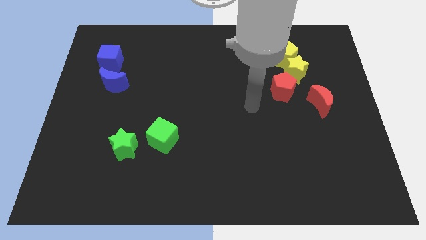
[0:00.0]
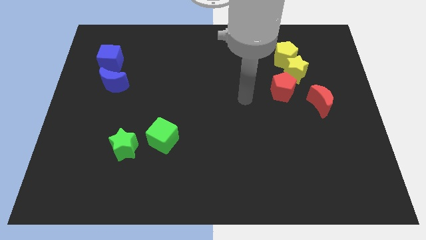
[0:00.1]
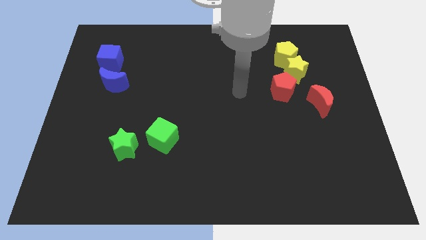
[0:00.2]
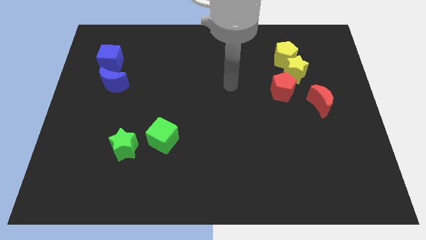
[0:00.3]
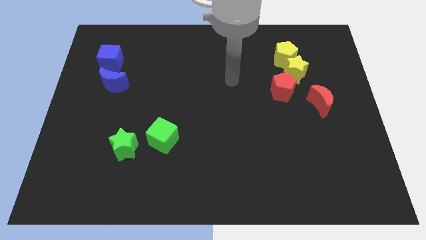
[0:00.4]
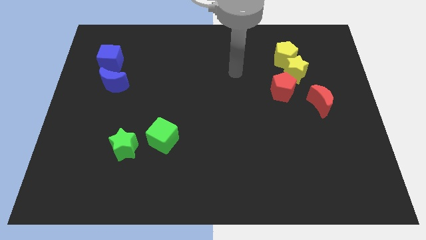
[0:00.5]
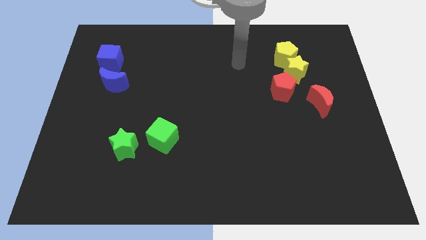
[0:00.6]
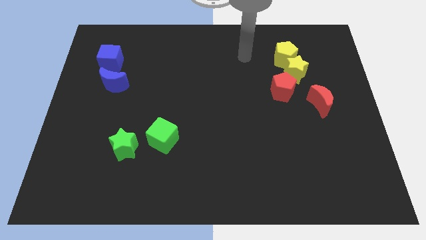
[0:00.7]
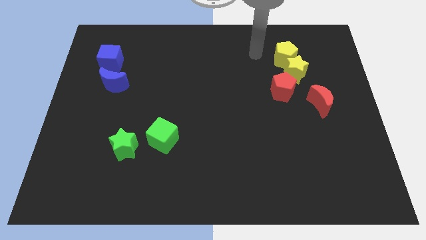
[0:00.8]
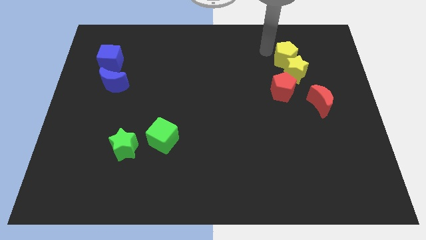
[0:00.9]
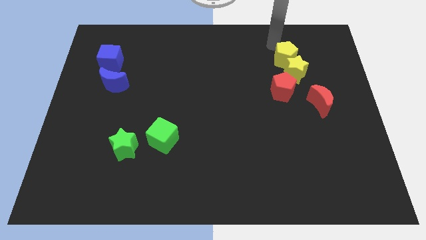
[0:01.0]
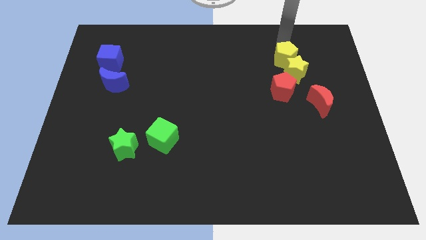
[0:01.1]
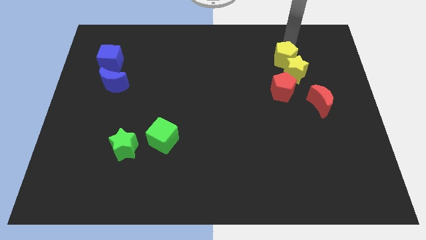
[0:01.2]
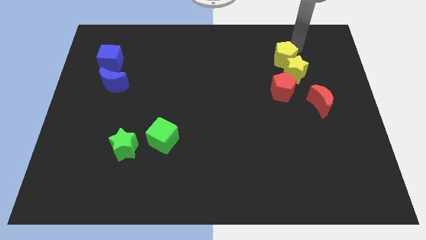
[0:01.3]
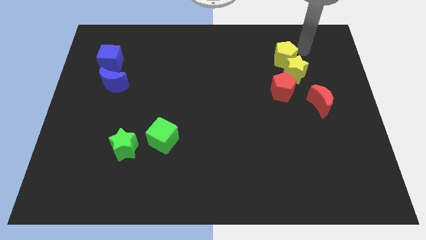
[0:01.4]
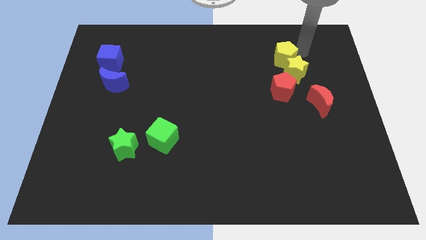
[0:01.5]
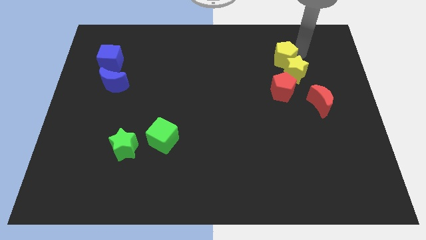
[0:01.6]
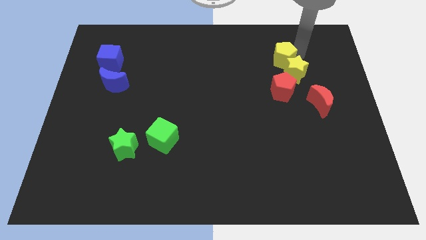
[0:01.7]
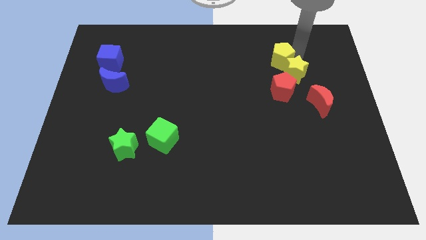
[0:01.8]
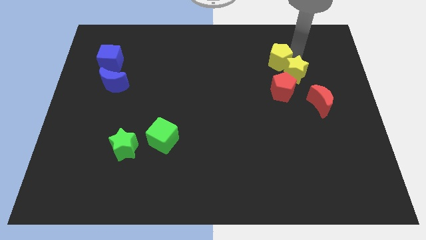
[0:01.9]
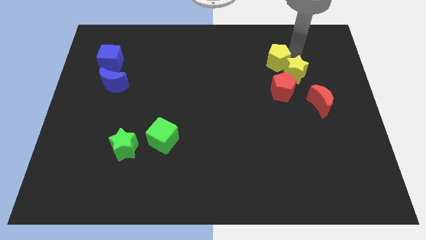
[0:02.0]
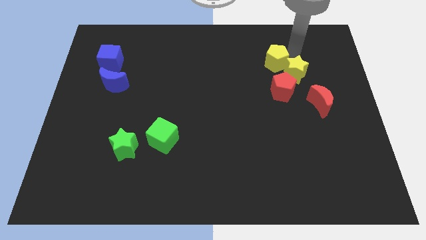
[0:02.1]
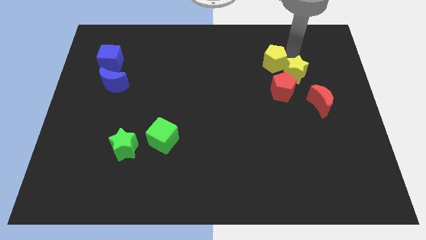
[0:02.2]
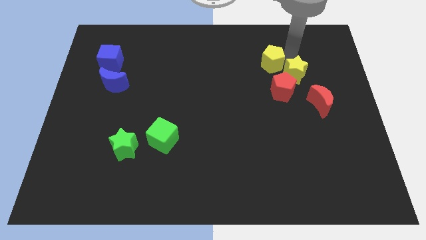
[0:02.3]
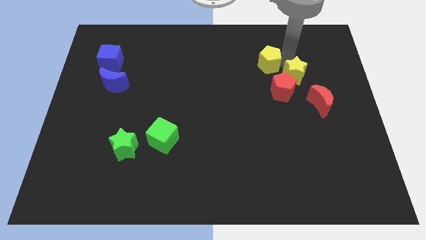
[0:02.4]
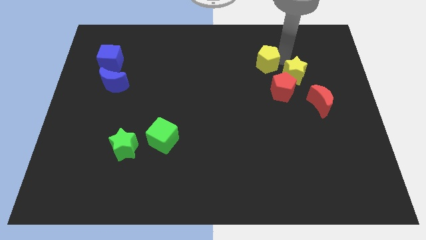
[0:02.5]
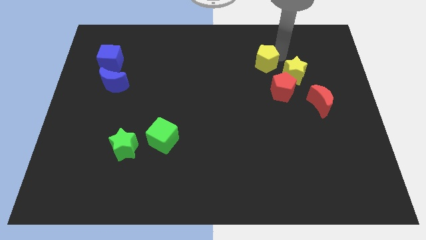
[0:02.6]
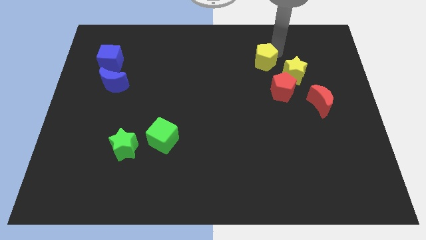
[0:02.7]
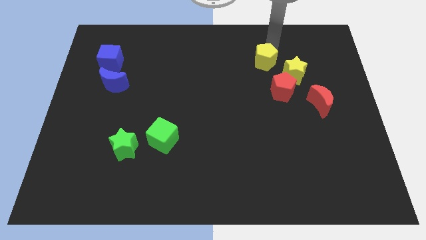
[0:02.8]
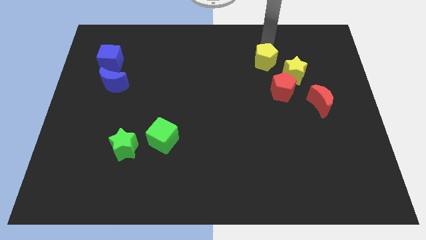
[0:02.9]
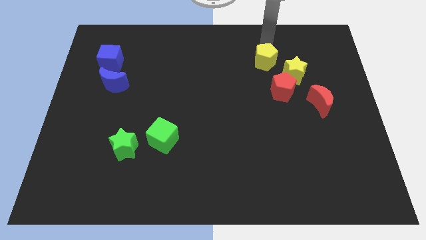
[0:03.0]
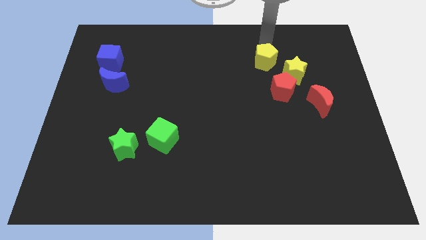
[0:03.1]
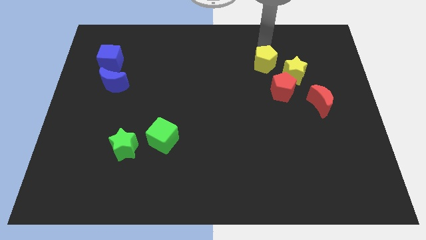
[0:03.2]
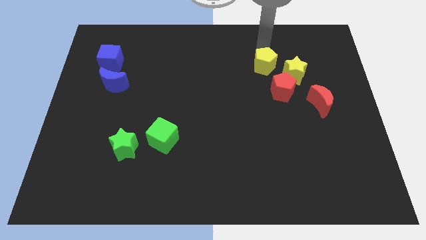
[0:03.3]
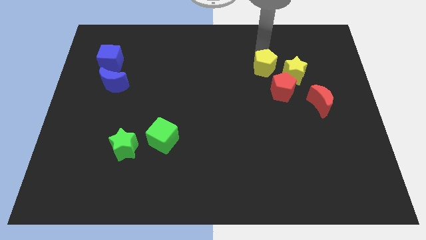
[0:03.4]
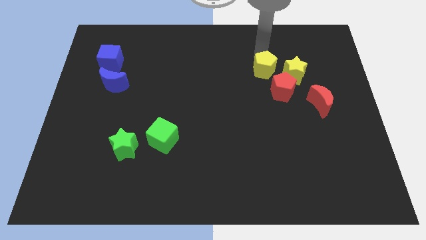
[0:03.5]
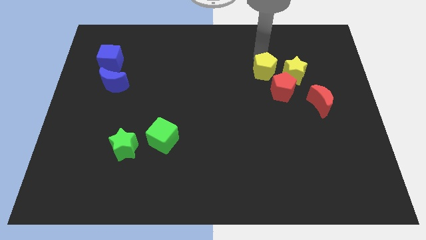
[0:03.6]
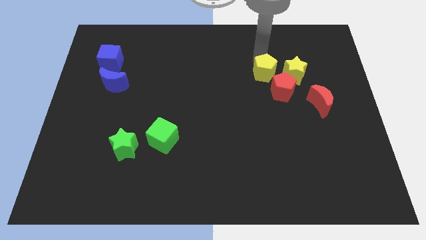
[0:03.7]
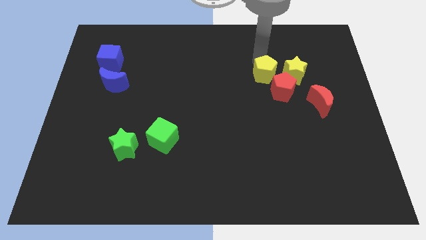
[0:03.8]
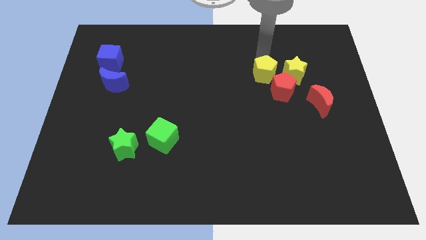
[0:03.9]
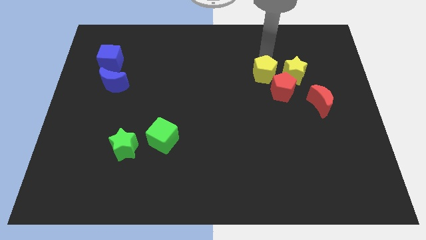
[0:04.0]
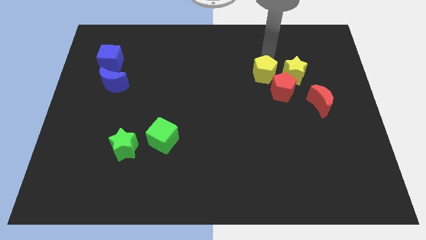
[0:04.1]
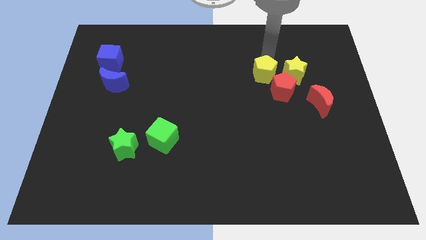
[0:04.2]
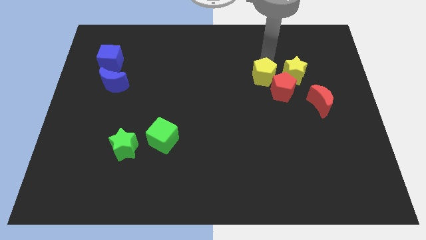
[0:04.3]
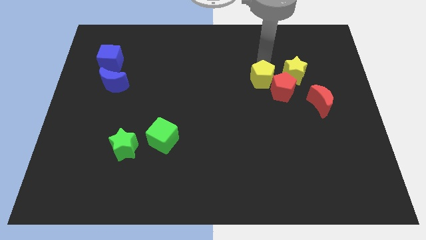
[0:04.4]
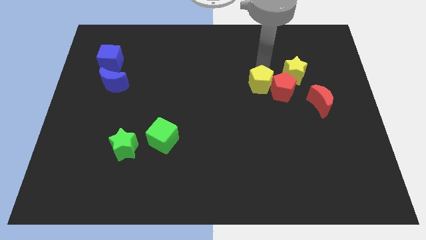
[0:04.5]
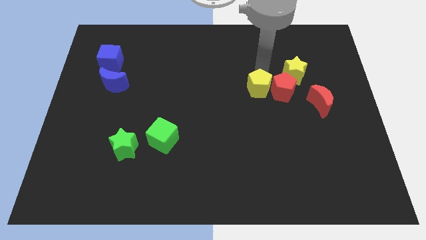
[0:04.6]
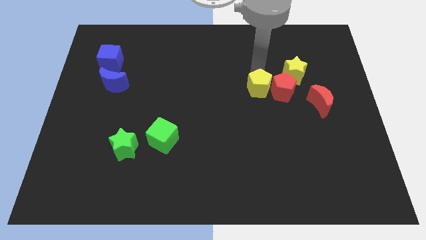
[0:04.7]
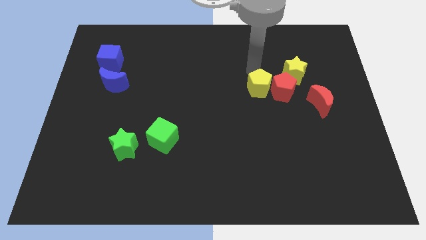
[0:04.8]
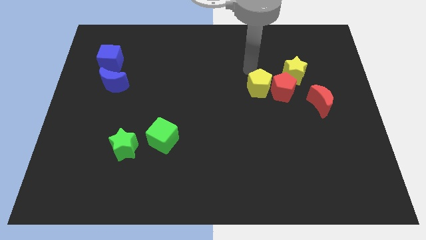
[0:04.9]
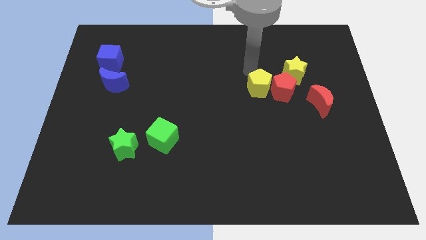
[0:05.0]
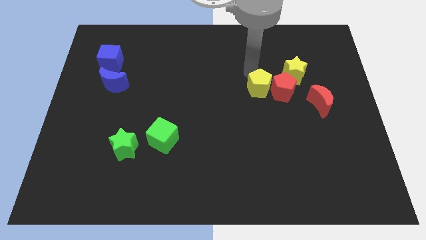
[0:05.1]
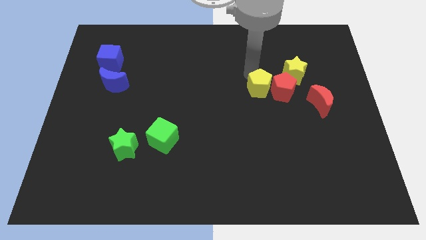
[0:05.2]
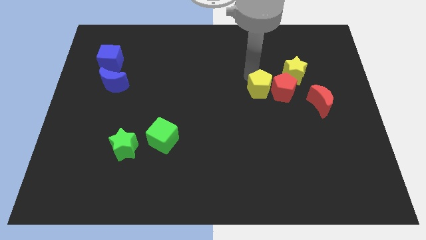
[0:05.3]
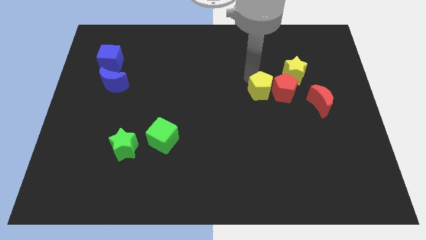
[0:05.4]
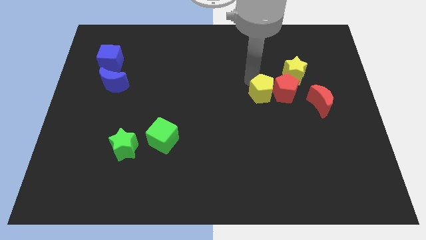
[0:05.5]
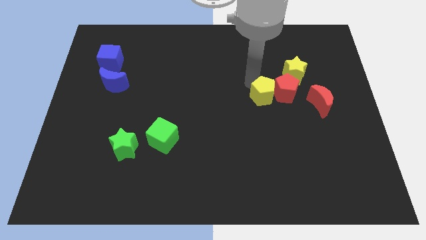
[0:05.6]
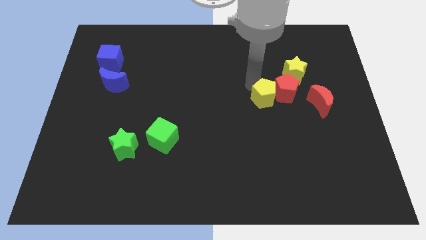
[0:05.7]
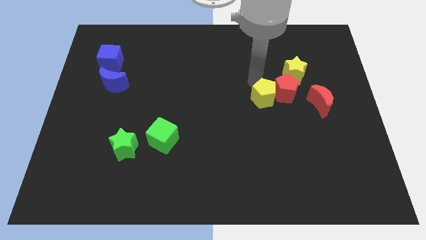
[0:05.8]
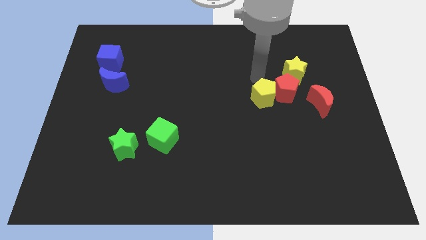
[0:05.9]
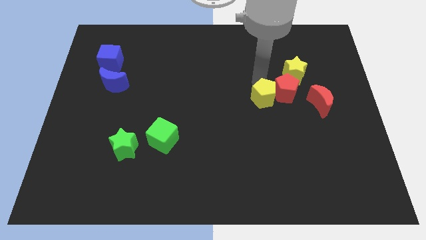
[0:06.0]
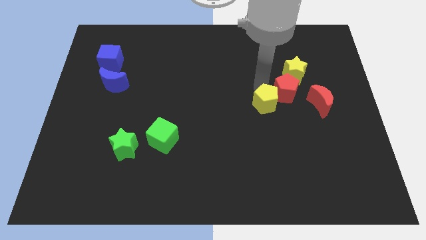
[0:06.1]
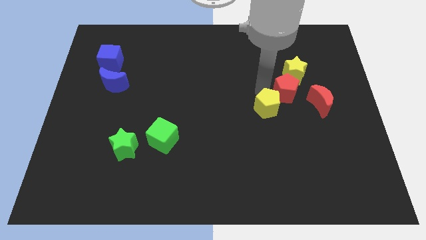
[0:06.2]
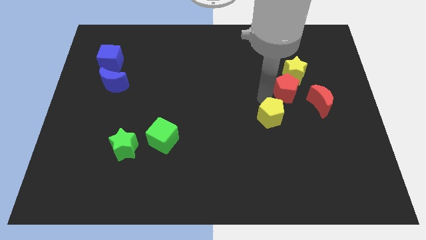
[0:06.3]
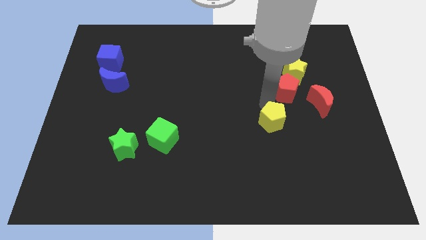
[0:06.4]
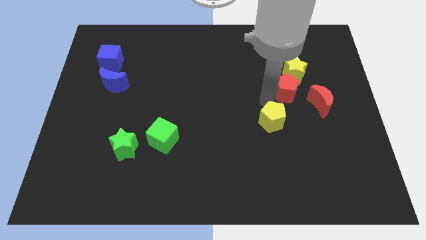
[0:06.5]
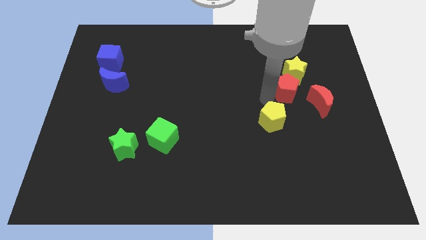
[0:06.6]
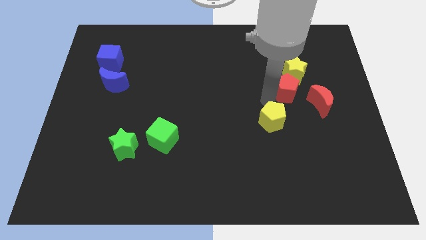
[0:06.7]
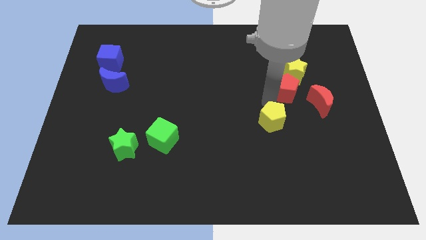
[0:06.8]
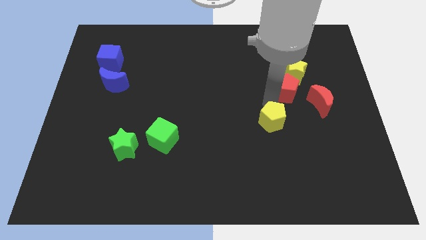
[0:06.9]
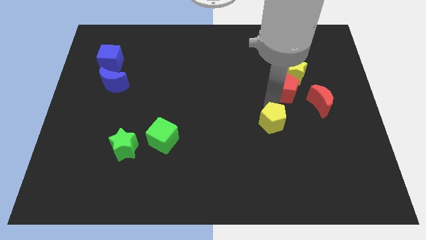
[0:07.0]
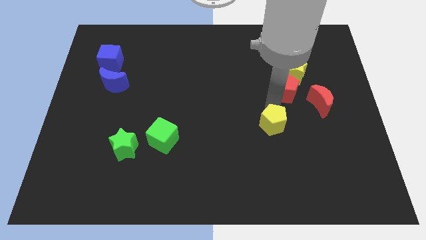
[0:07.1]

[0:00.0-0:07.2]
push the yellow pentagon downwards

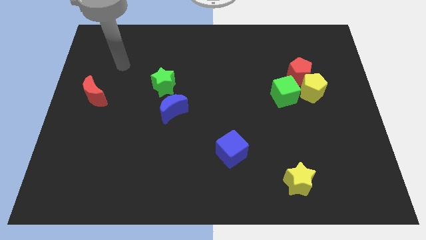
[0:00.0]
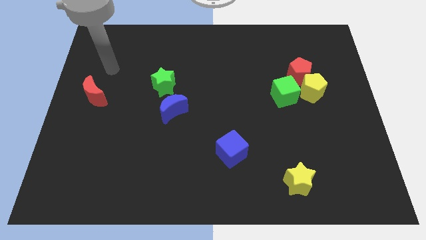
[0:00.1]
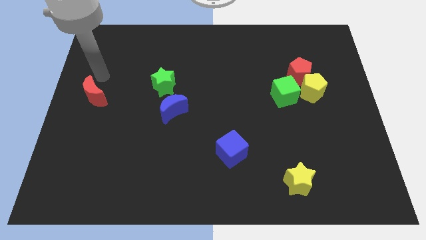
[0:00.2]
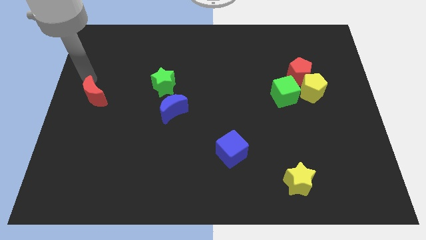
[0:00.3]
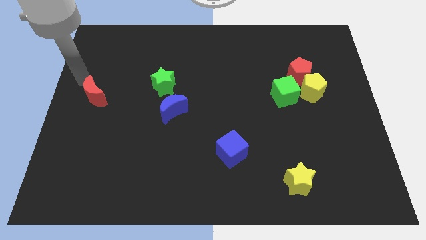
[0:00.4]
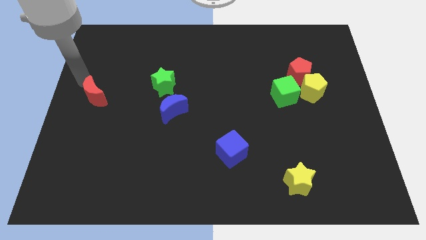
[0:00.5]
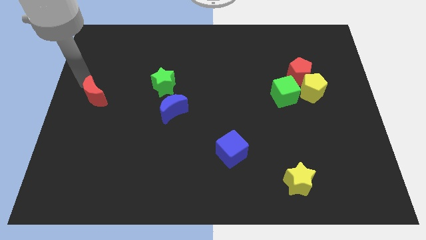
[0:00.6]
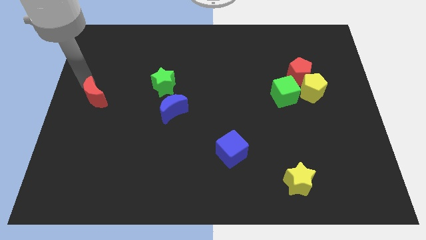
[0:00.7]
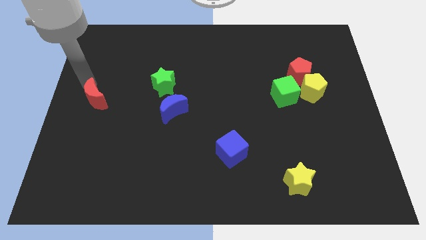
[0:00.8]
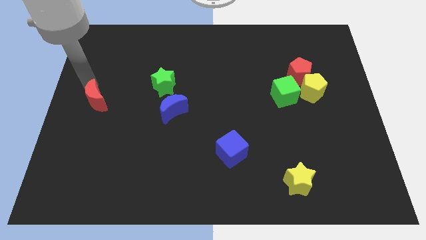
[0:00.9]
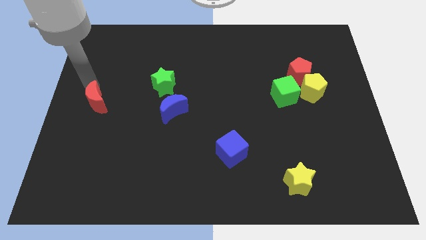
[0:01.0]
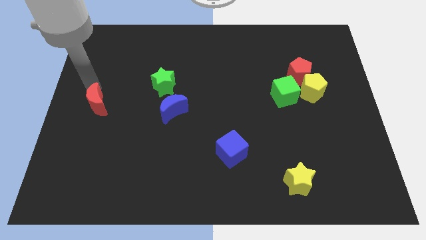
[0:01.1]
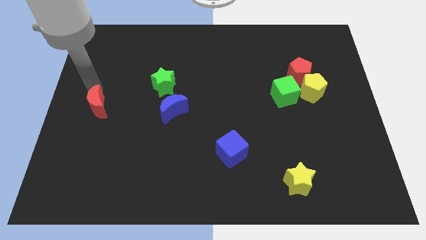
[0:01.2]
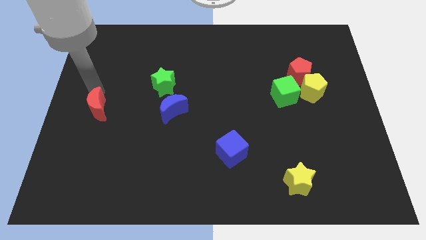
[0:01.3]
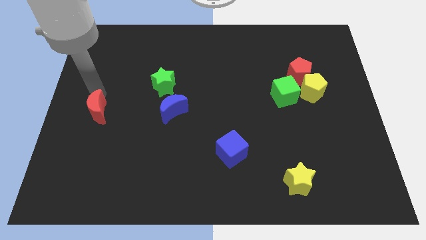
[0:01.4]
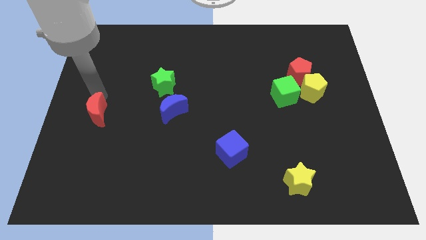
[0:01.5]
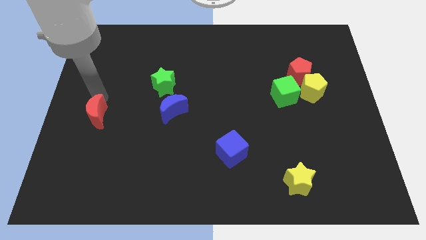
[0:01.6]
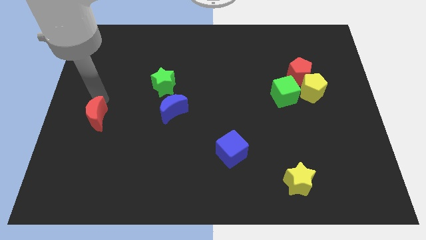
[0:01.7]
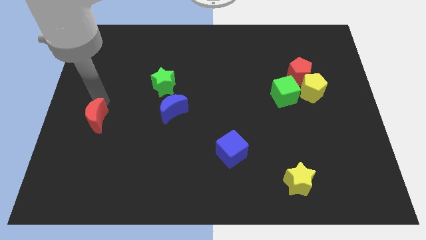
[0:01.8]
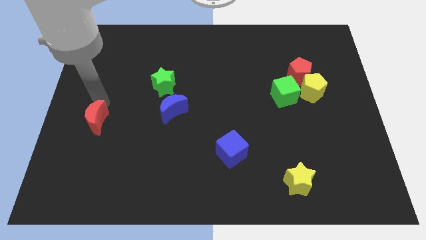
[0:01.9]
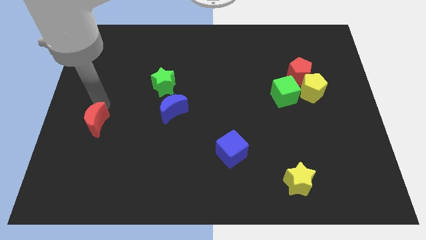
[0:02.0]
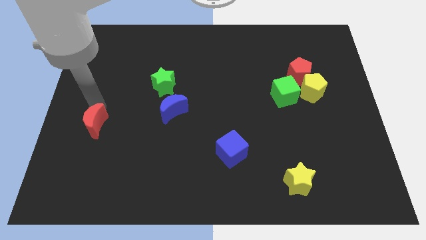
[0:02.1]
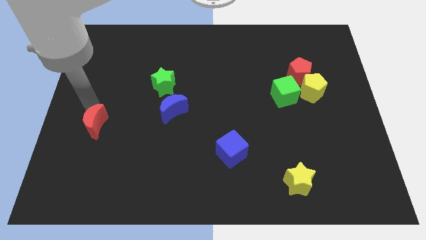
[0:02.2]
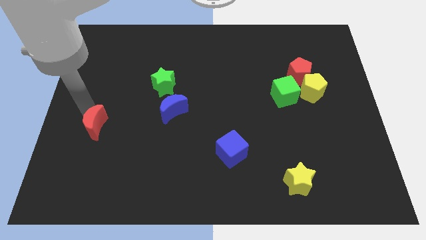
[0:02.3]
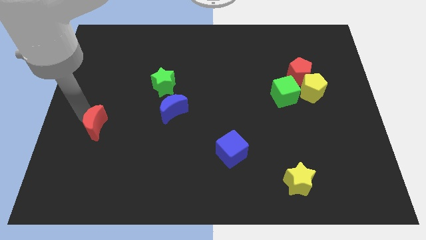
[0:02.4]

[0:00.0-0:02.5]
move the red moon a bit downwards and right
